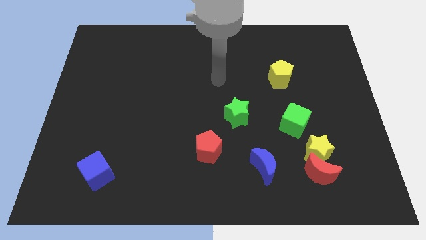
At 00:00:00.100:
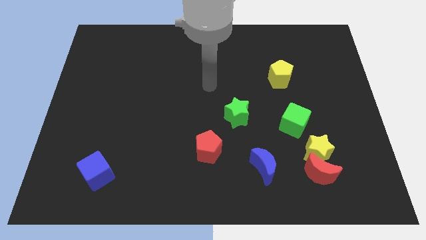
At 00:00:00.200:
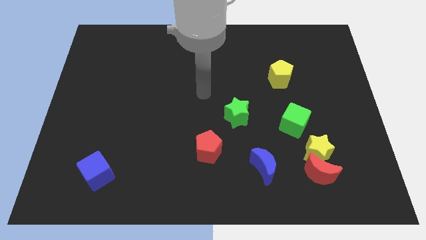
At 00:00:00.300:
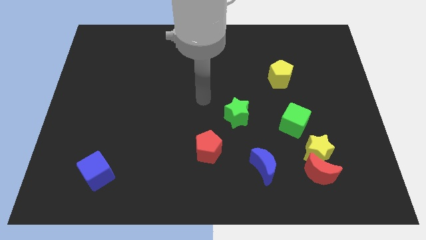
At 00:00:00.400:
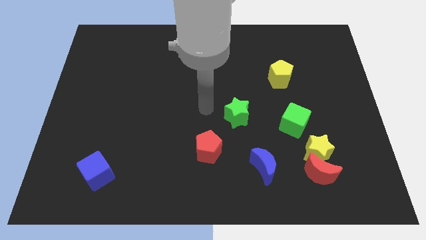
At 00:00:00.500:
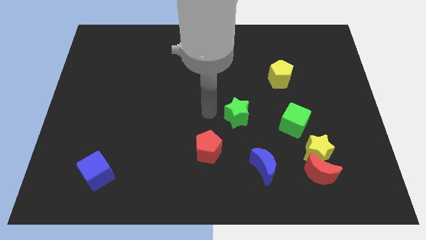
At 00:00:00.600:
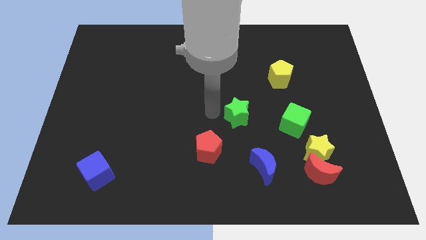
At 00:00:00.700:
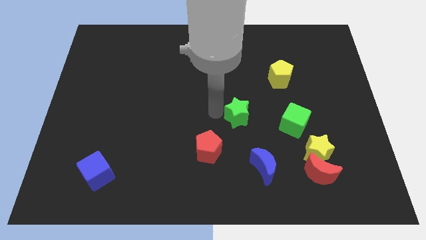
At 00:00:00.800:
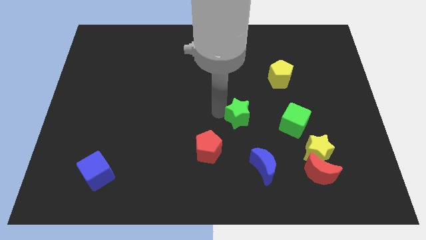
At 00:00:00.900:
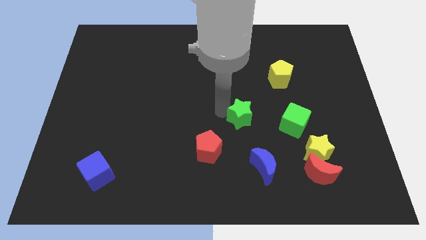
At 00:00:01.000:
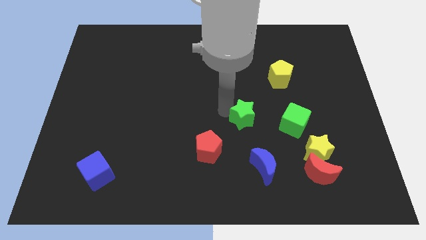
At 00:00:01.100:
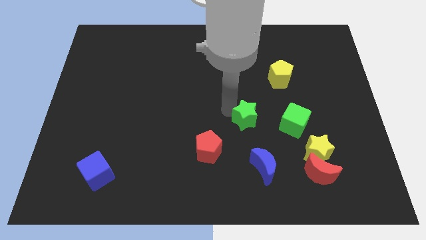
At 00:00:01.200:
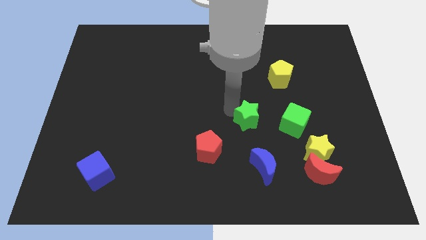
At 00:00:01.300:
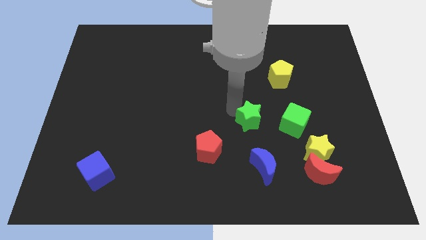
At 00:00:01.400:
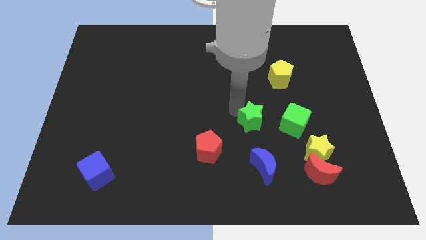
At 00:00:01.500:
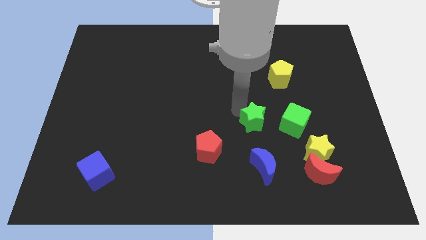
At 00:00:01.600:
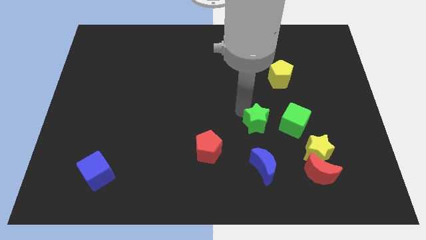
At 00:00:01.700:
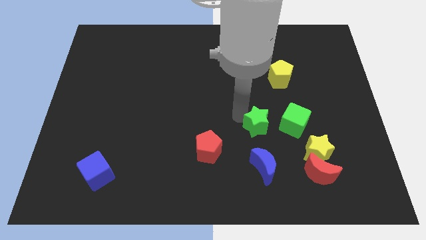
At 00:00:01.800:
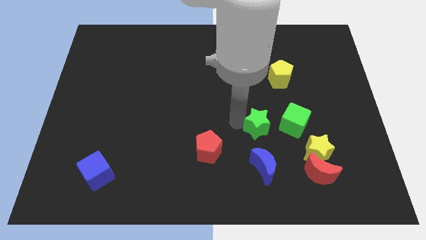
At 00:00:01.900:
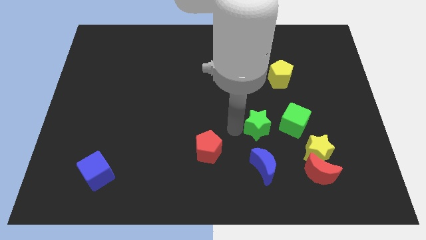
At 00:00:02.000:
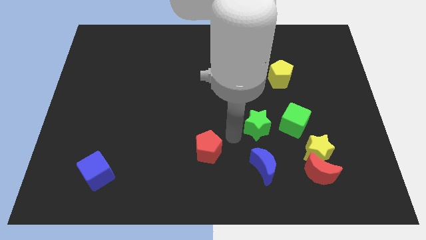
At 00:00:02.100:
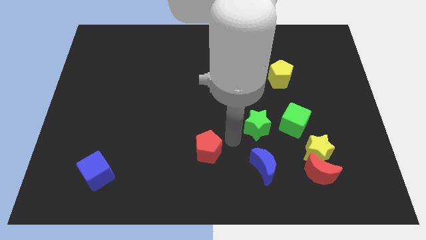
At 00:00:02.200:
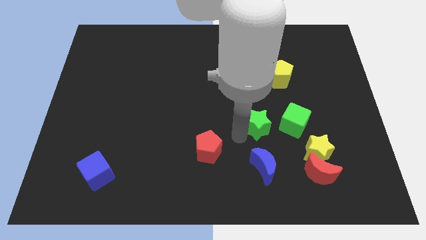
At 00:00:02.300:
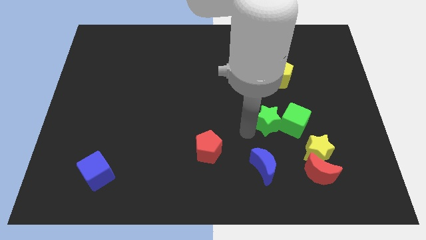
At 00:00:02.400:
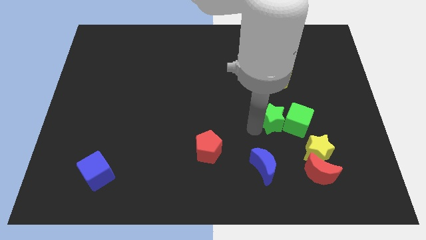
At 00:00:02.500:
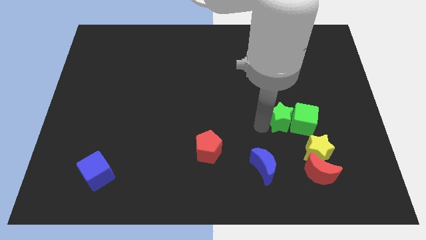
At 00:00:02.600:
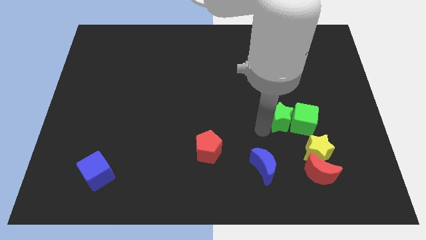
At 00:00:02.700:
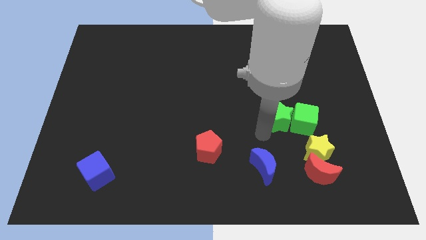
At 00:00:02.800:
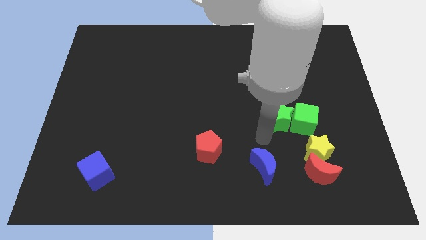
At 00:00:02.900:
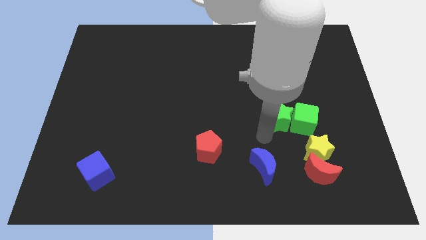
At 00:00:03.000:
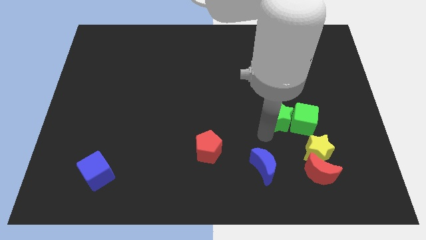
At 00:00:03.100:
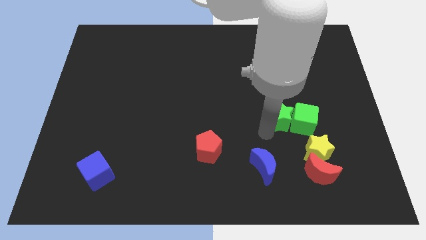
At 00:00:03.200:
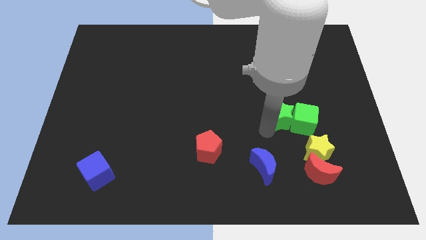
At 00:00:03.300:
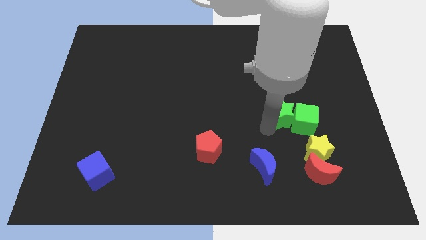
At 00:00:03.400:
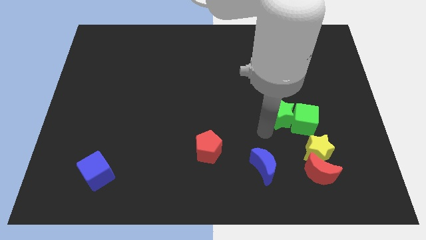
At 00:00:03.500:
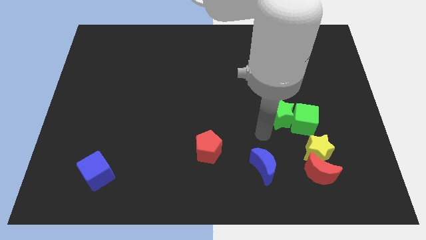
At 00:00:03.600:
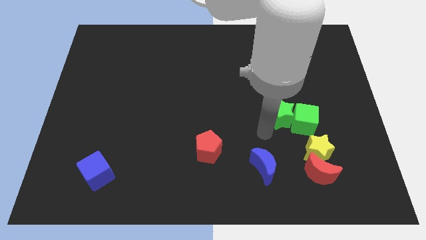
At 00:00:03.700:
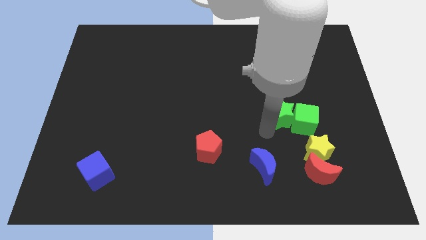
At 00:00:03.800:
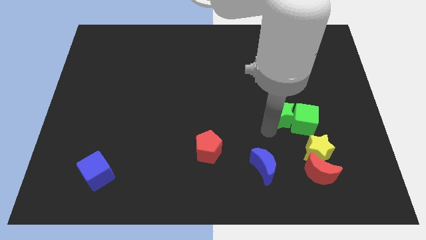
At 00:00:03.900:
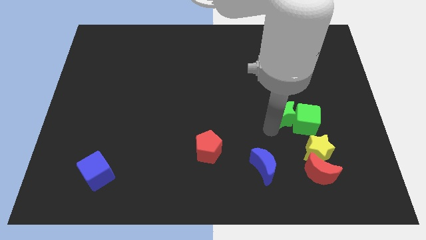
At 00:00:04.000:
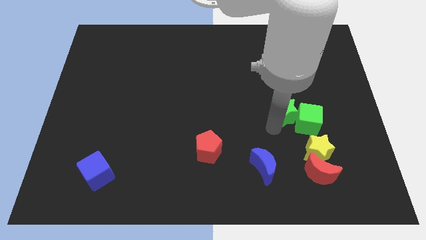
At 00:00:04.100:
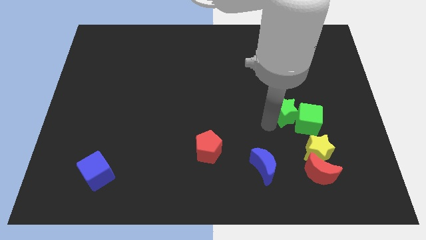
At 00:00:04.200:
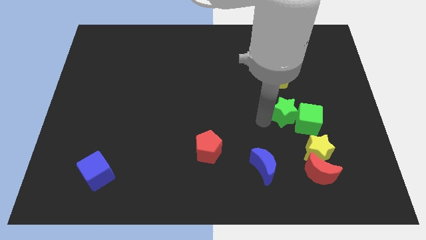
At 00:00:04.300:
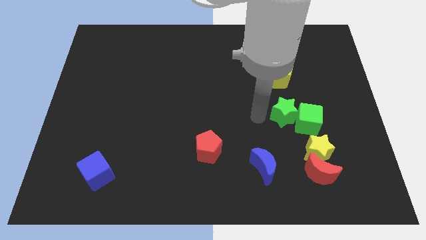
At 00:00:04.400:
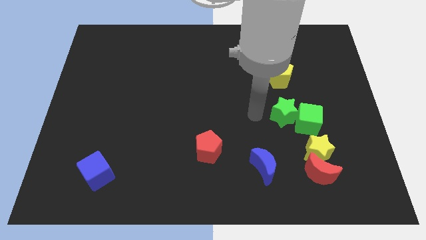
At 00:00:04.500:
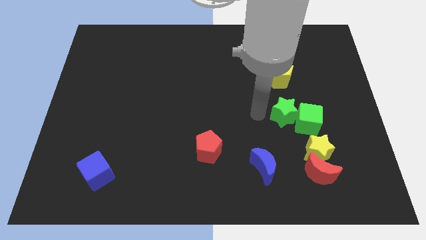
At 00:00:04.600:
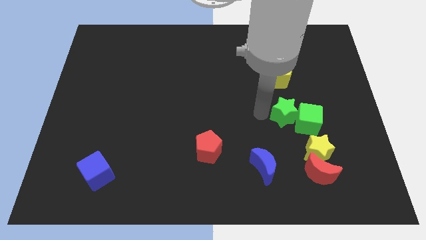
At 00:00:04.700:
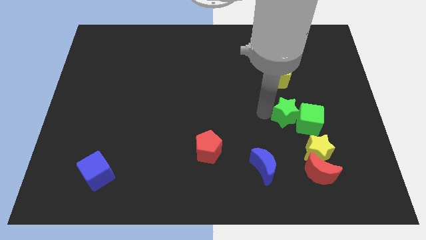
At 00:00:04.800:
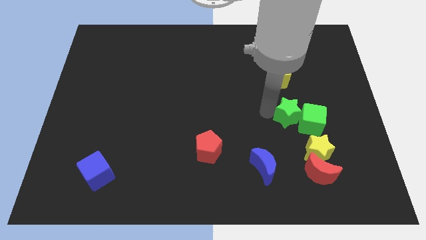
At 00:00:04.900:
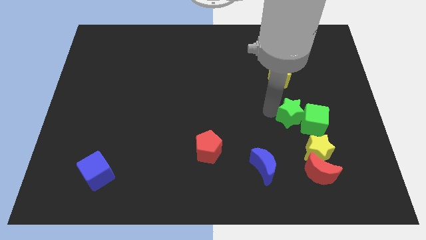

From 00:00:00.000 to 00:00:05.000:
put the green star to the top of the yellow star

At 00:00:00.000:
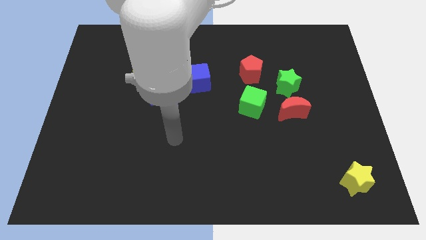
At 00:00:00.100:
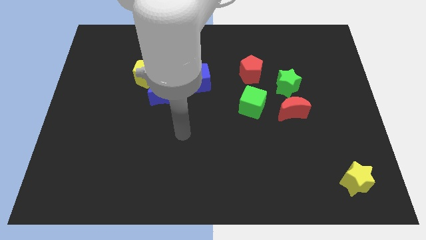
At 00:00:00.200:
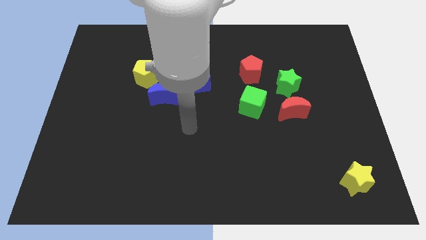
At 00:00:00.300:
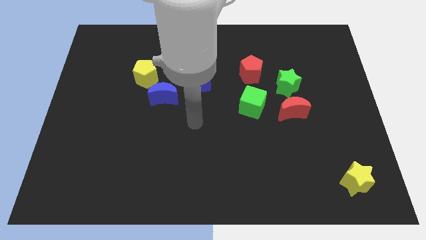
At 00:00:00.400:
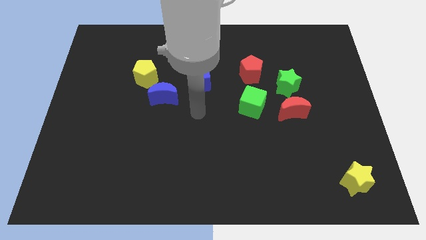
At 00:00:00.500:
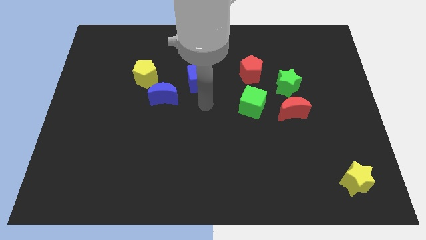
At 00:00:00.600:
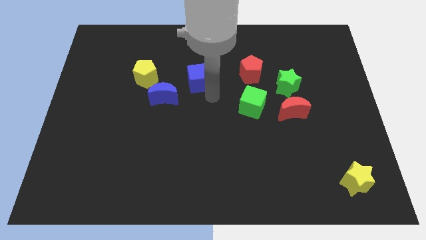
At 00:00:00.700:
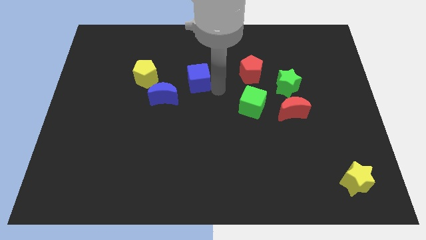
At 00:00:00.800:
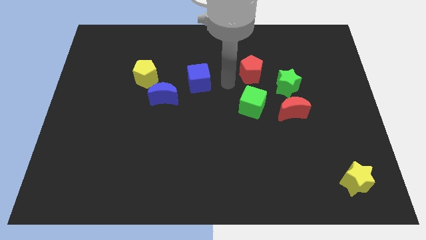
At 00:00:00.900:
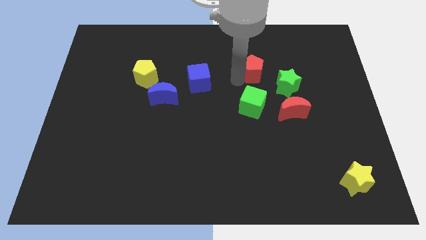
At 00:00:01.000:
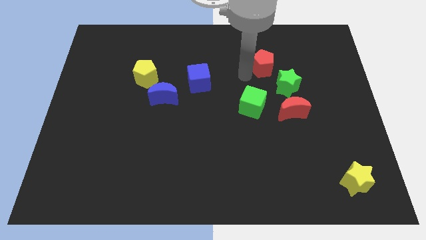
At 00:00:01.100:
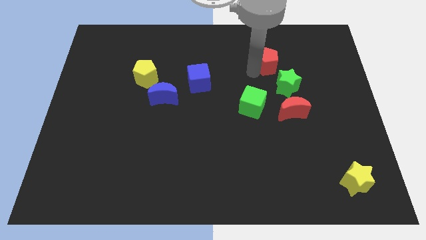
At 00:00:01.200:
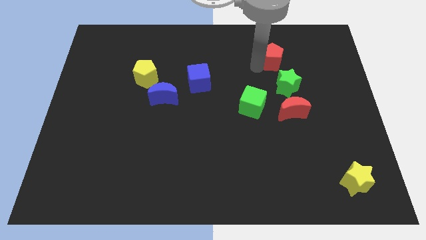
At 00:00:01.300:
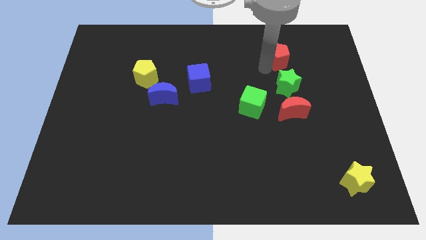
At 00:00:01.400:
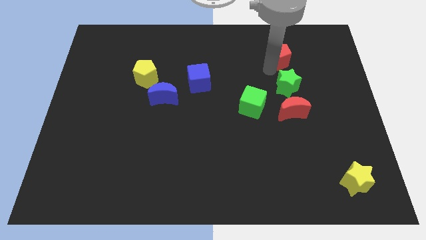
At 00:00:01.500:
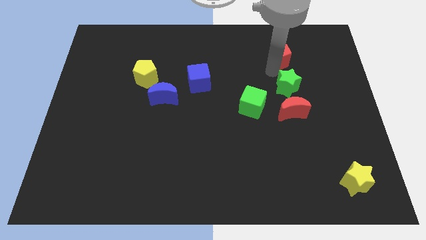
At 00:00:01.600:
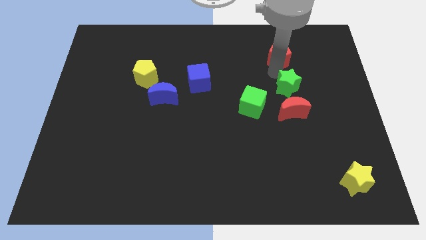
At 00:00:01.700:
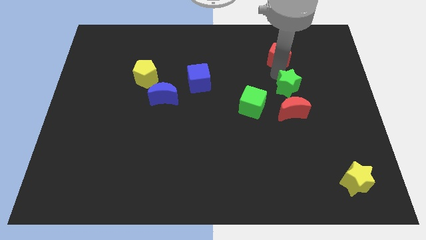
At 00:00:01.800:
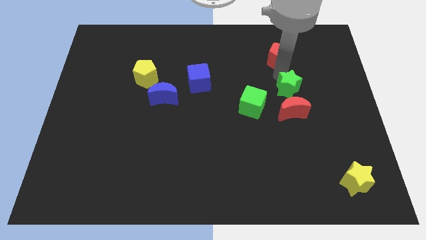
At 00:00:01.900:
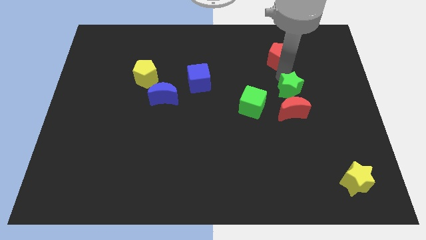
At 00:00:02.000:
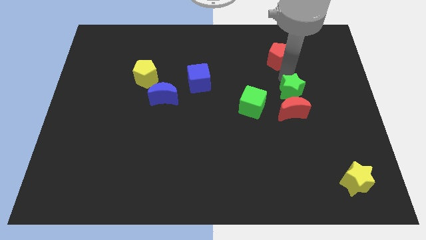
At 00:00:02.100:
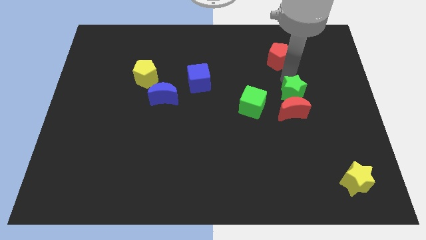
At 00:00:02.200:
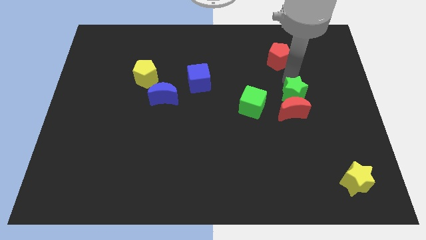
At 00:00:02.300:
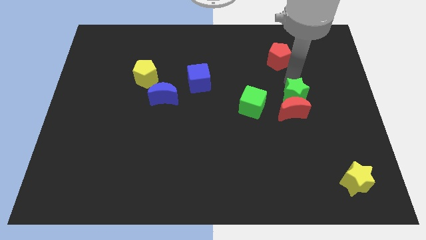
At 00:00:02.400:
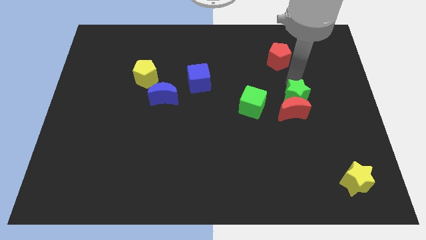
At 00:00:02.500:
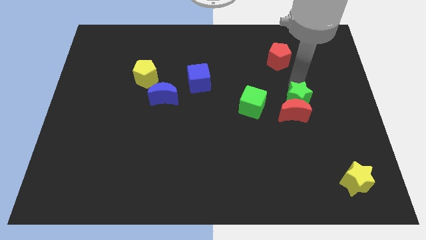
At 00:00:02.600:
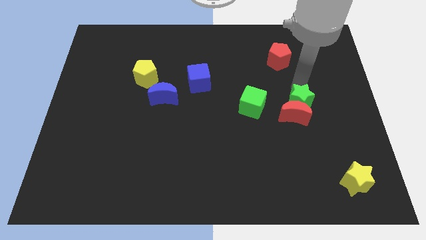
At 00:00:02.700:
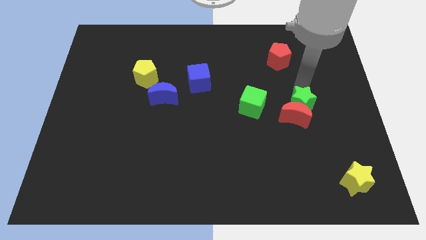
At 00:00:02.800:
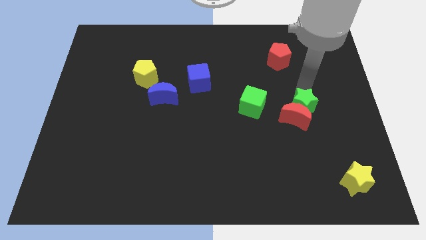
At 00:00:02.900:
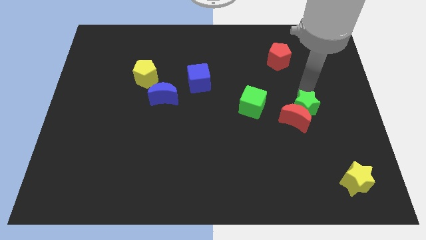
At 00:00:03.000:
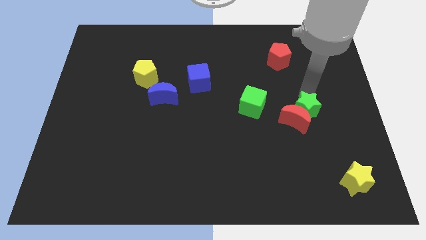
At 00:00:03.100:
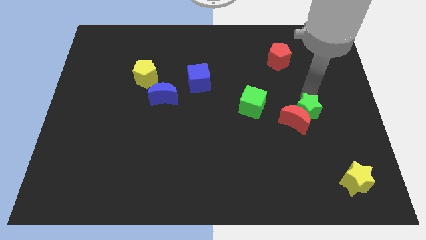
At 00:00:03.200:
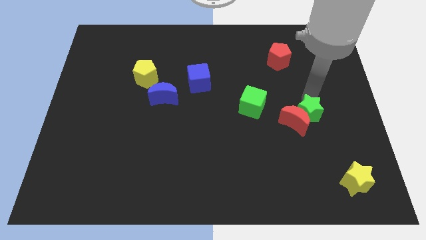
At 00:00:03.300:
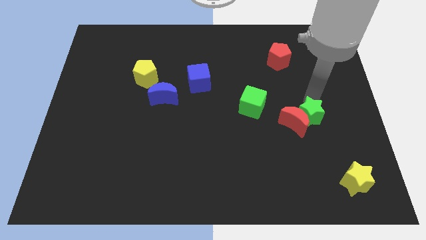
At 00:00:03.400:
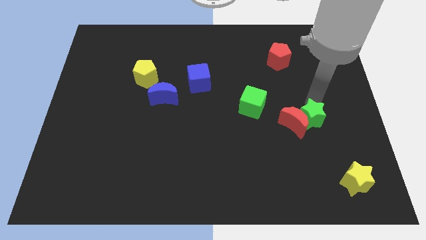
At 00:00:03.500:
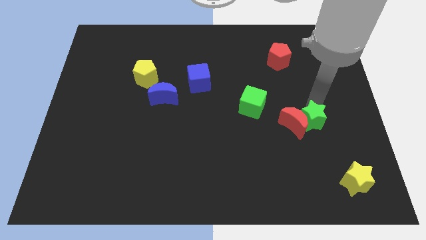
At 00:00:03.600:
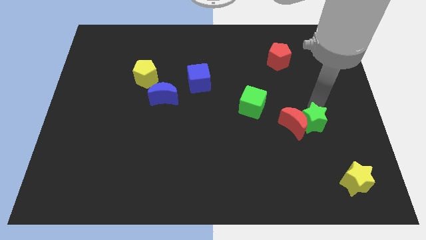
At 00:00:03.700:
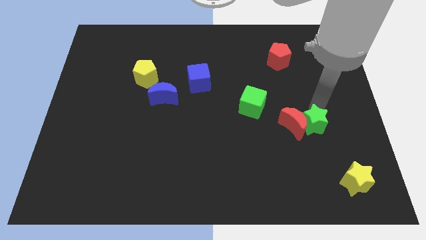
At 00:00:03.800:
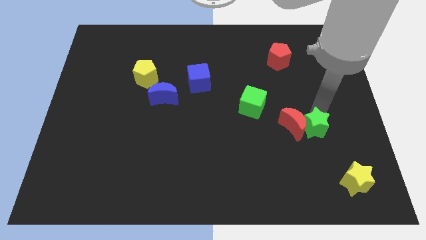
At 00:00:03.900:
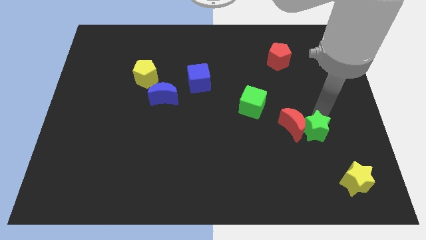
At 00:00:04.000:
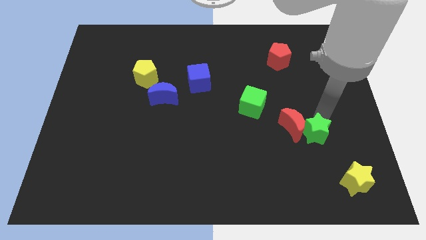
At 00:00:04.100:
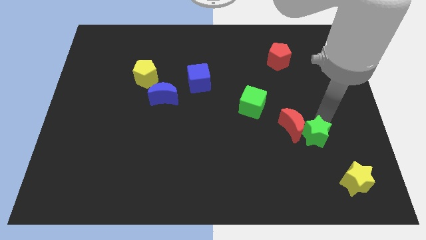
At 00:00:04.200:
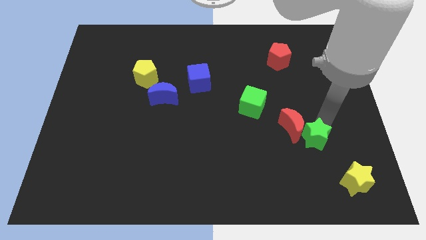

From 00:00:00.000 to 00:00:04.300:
slide the green star to the top left side of the yellow star
